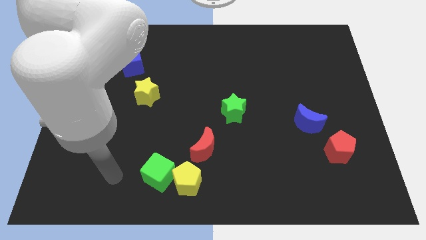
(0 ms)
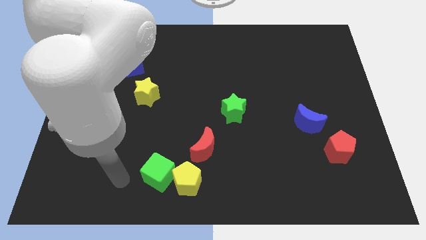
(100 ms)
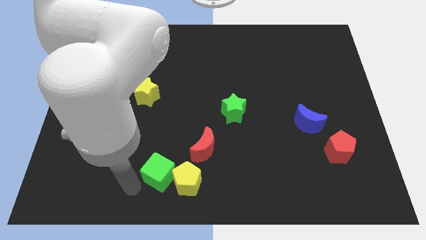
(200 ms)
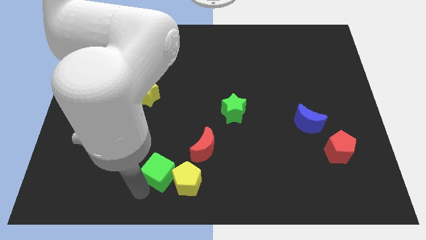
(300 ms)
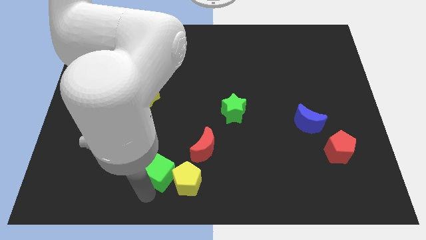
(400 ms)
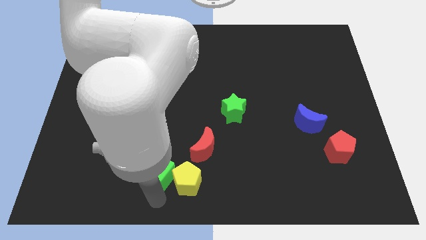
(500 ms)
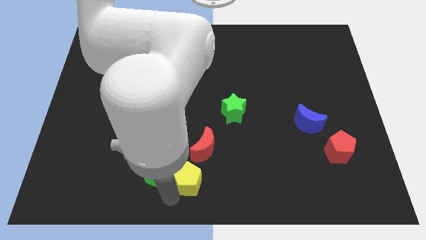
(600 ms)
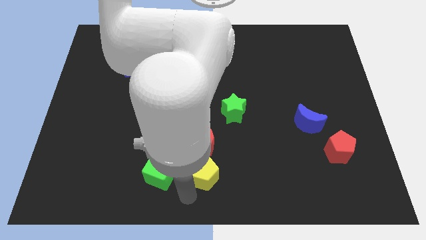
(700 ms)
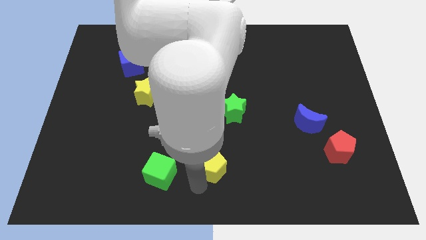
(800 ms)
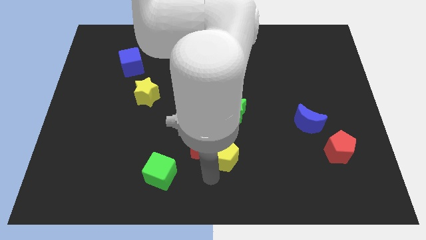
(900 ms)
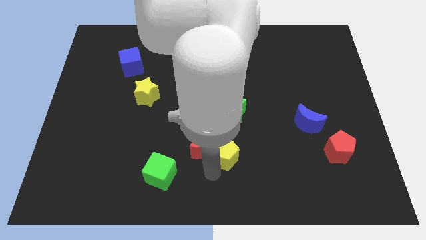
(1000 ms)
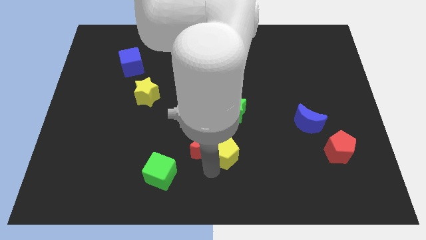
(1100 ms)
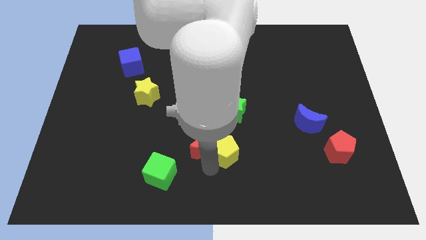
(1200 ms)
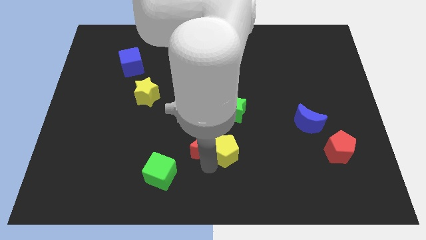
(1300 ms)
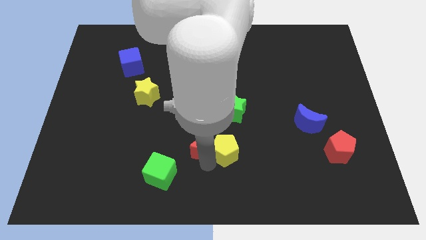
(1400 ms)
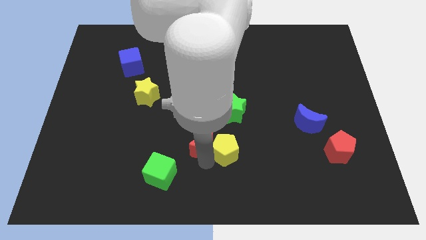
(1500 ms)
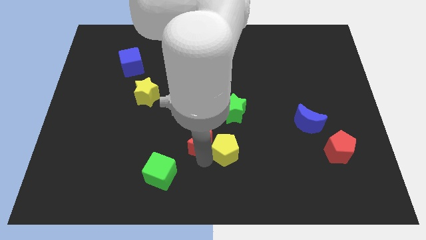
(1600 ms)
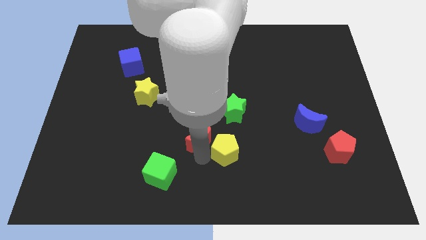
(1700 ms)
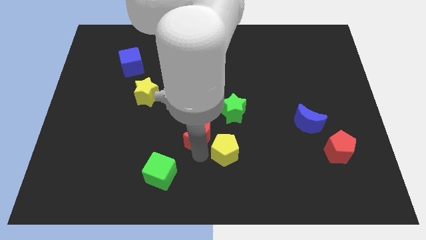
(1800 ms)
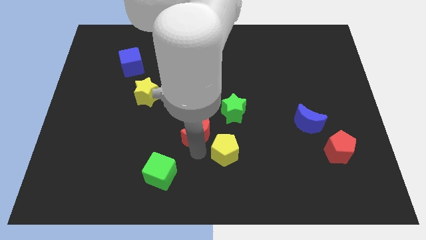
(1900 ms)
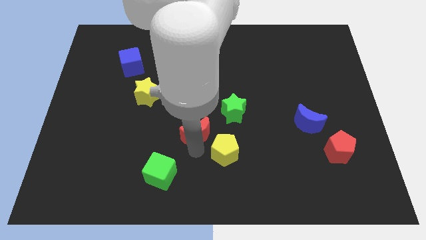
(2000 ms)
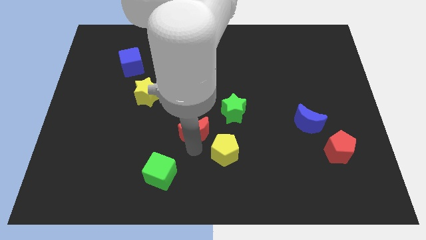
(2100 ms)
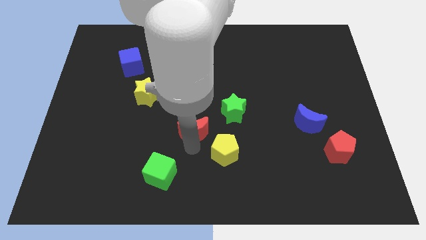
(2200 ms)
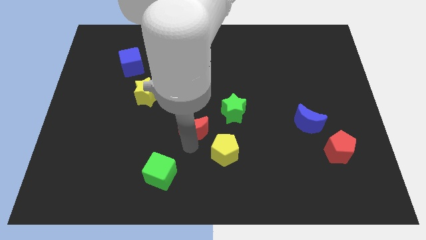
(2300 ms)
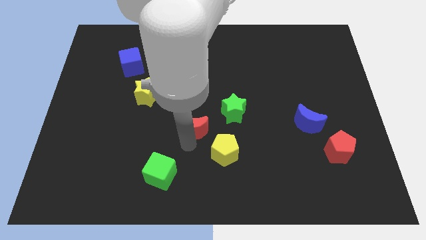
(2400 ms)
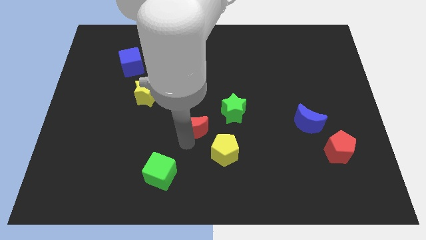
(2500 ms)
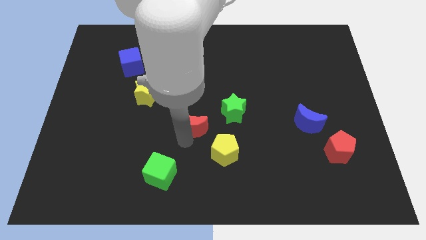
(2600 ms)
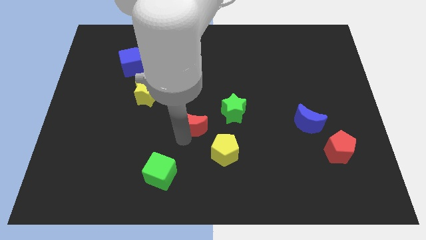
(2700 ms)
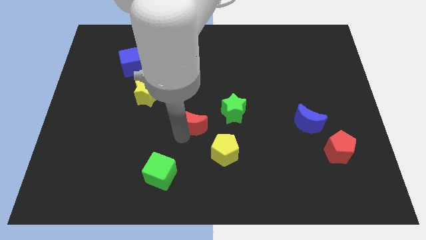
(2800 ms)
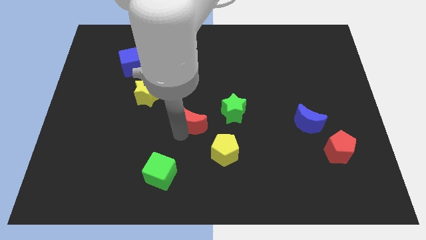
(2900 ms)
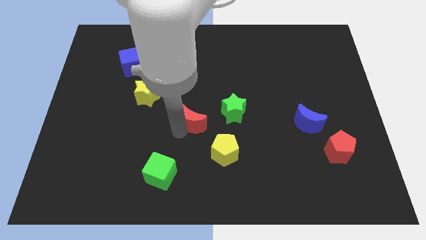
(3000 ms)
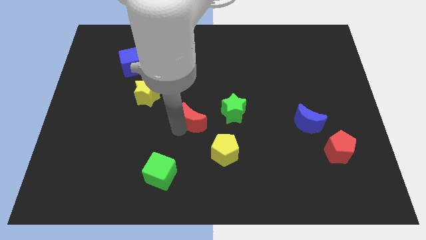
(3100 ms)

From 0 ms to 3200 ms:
slightly push the red moon upwards

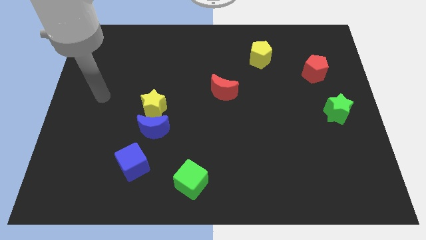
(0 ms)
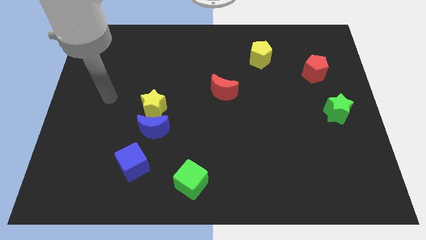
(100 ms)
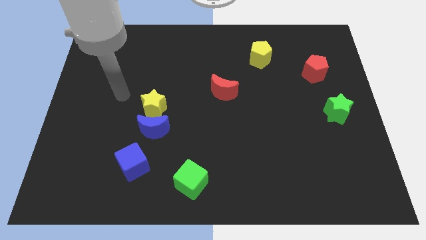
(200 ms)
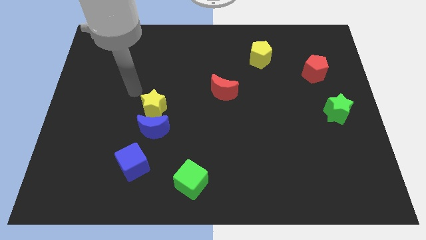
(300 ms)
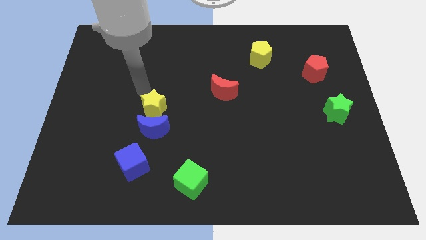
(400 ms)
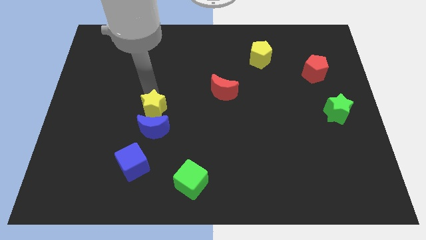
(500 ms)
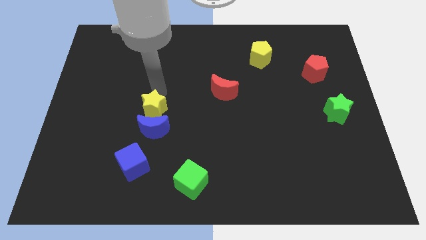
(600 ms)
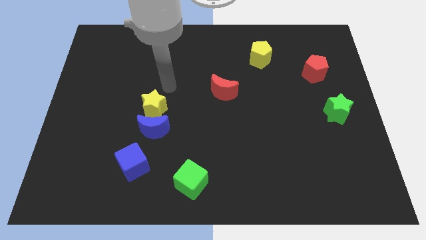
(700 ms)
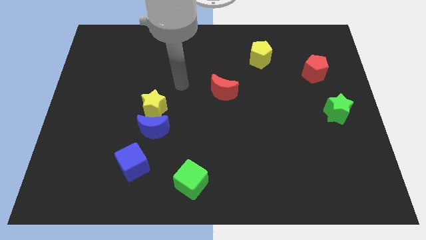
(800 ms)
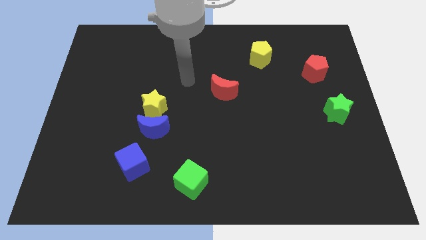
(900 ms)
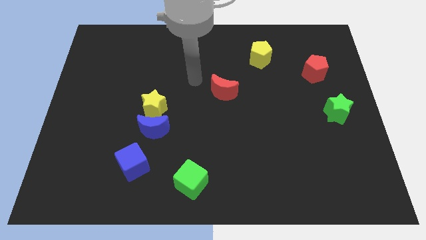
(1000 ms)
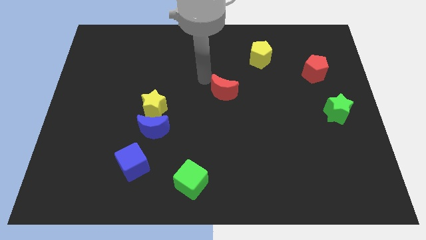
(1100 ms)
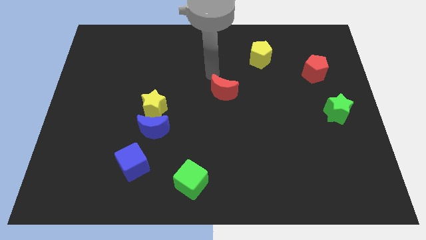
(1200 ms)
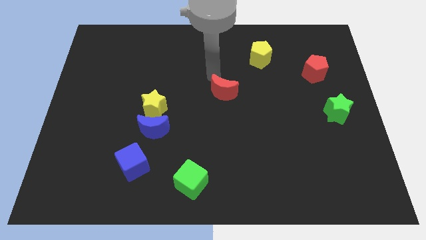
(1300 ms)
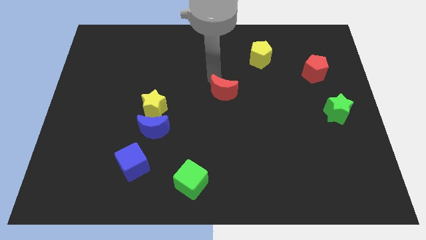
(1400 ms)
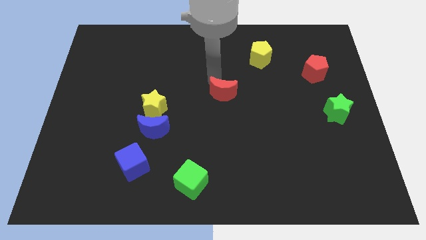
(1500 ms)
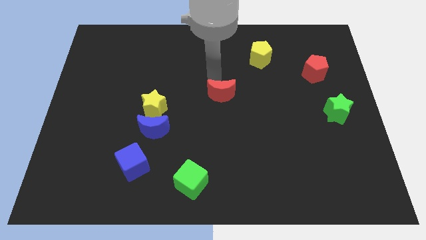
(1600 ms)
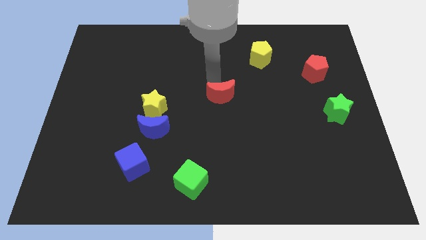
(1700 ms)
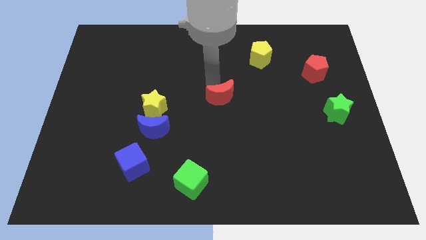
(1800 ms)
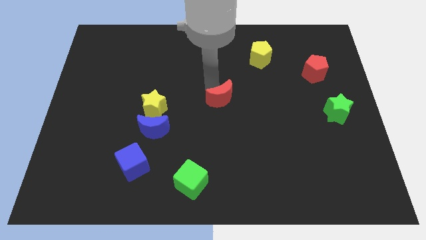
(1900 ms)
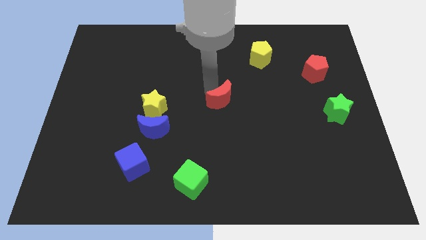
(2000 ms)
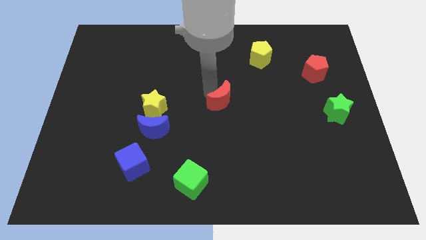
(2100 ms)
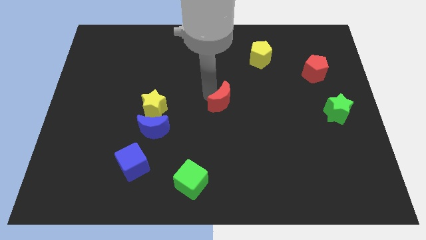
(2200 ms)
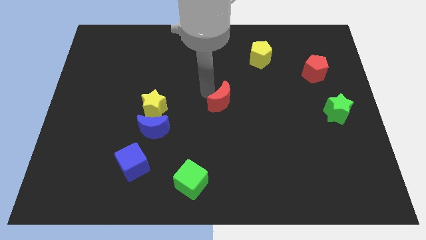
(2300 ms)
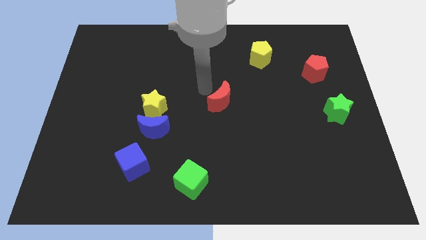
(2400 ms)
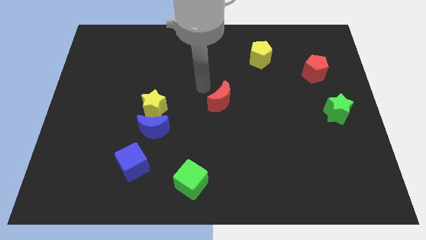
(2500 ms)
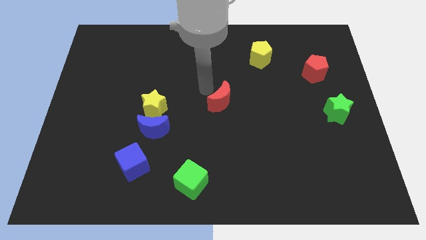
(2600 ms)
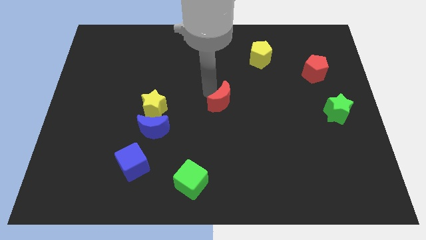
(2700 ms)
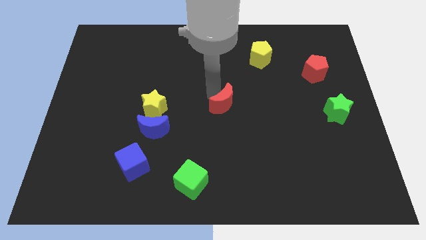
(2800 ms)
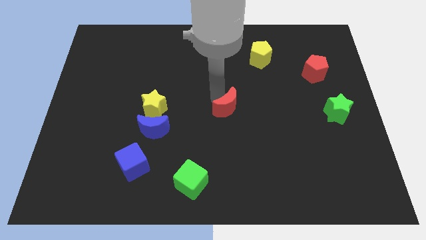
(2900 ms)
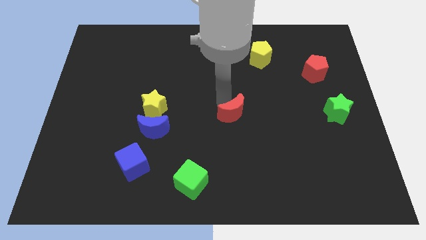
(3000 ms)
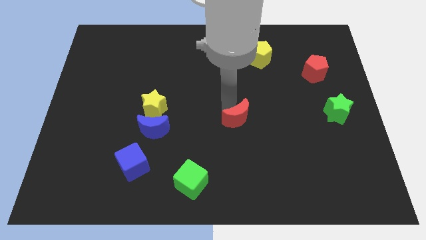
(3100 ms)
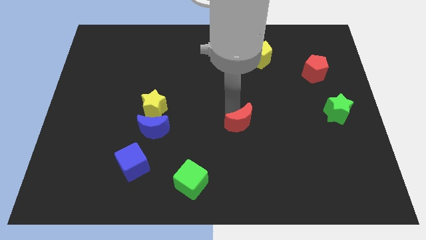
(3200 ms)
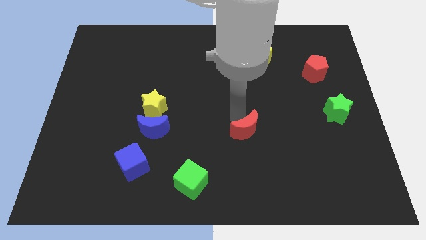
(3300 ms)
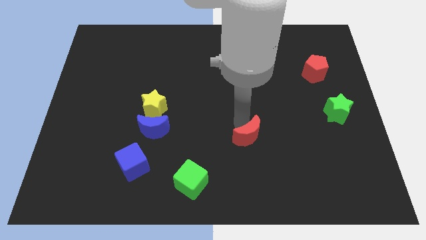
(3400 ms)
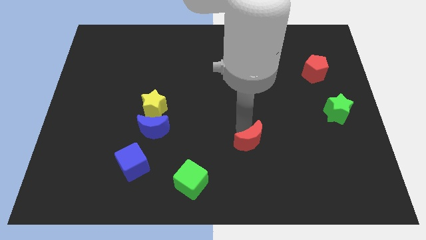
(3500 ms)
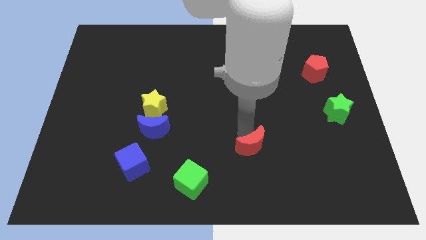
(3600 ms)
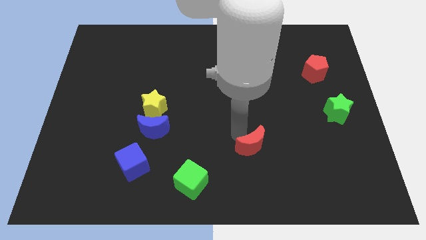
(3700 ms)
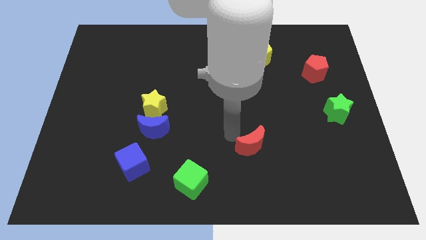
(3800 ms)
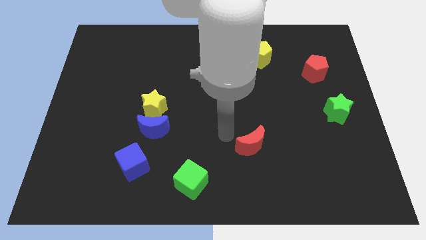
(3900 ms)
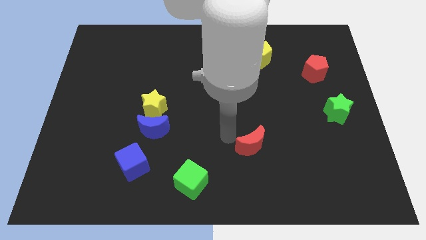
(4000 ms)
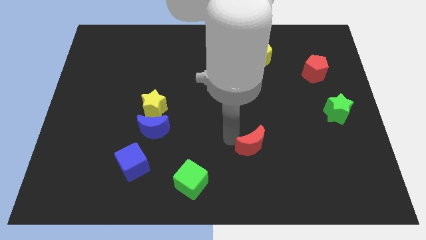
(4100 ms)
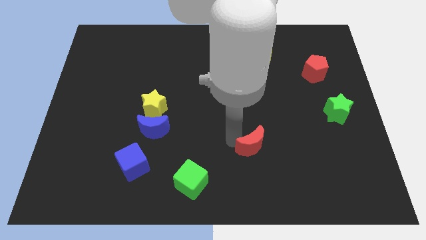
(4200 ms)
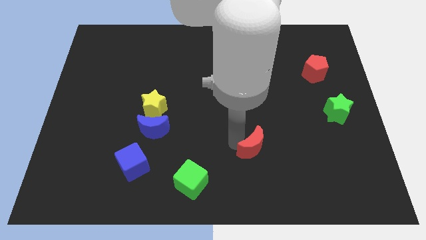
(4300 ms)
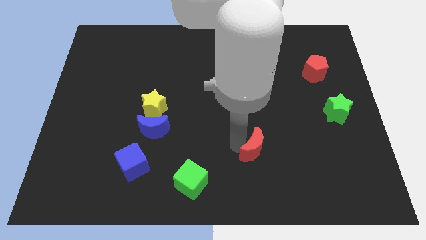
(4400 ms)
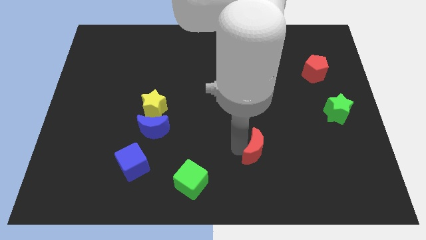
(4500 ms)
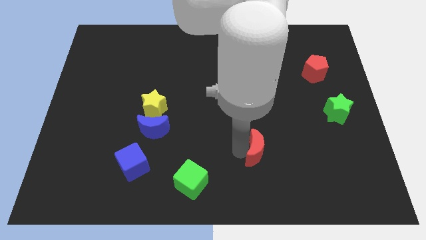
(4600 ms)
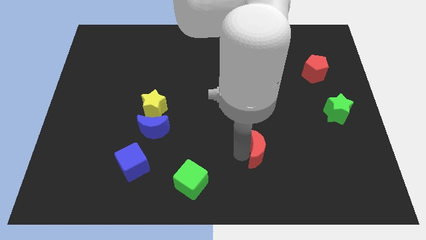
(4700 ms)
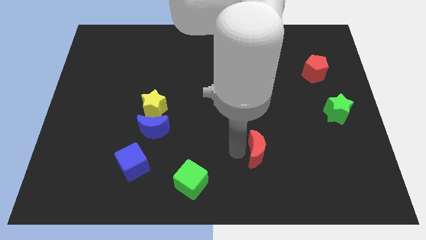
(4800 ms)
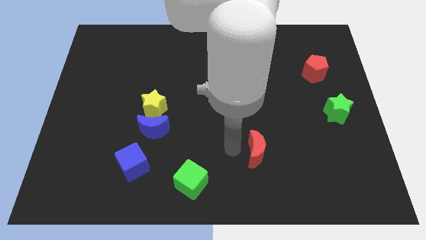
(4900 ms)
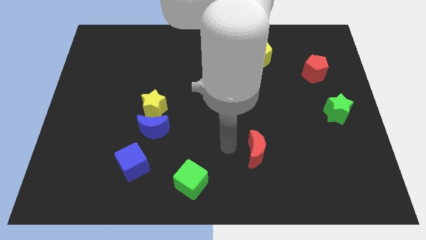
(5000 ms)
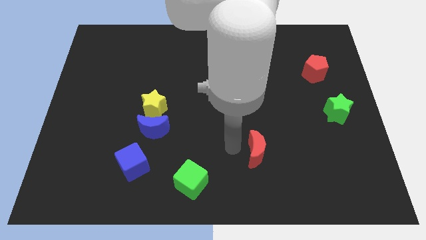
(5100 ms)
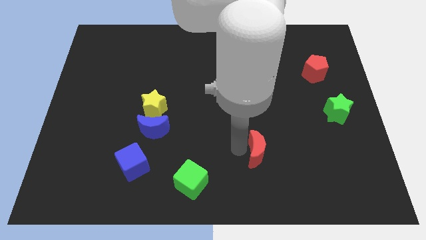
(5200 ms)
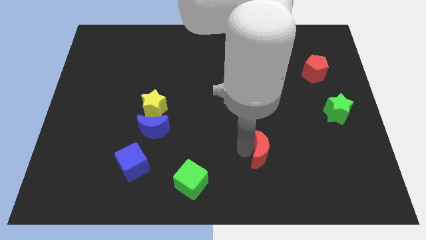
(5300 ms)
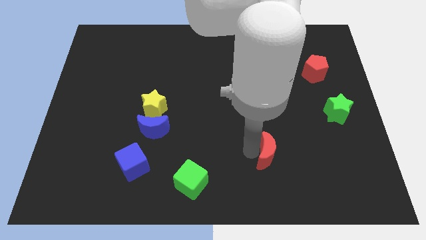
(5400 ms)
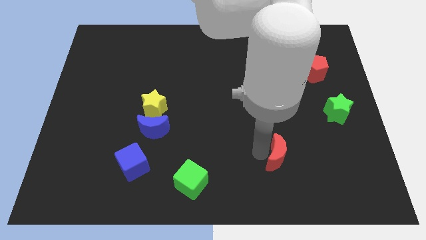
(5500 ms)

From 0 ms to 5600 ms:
move the red moon down and right diagonally
